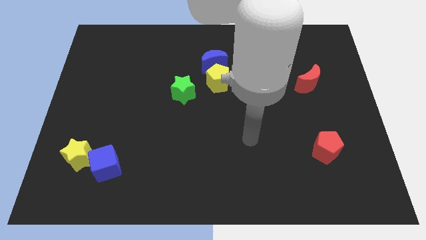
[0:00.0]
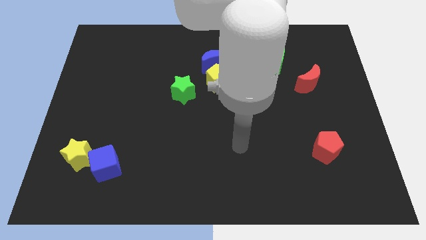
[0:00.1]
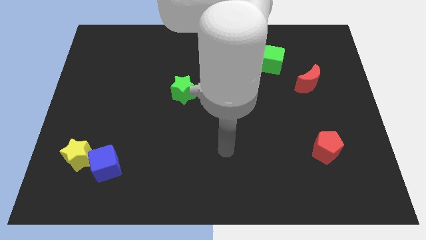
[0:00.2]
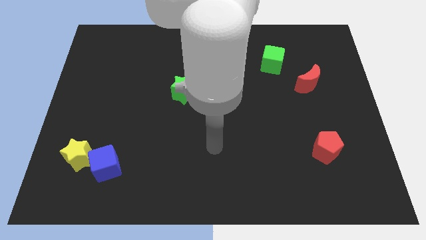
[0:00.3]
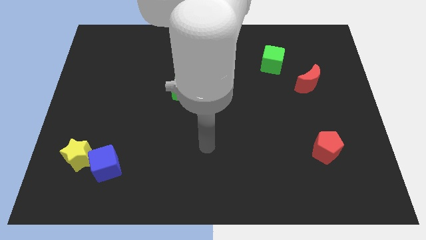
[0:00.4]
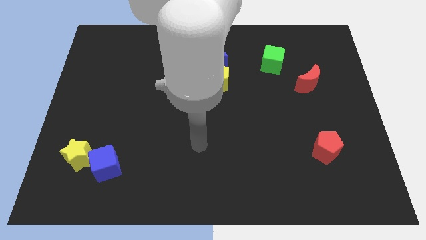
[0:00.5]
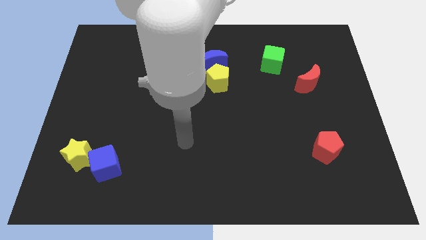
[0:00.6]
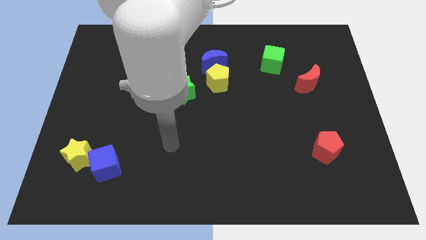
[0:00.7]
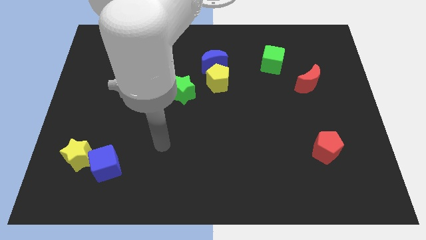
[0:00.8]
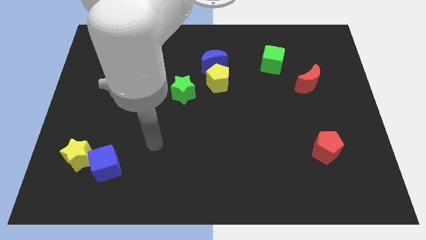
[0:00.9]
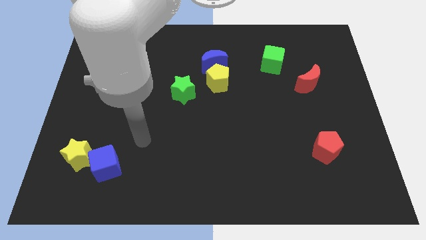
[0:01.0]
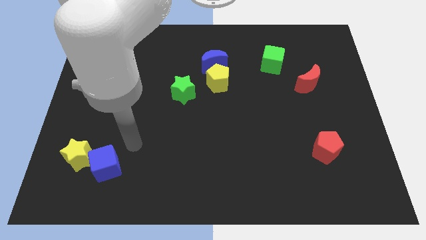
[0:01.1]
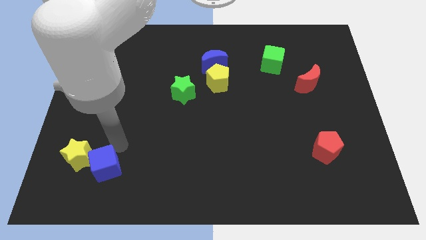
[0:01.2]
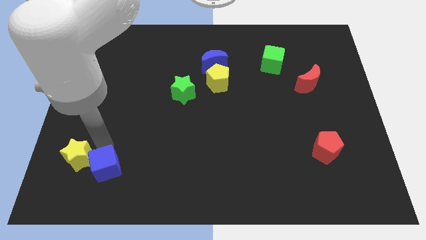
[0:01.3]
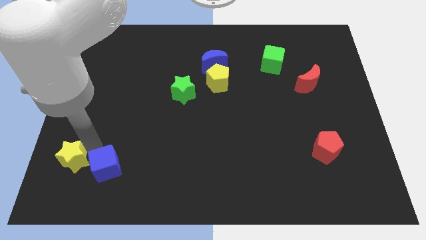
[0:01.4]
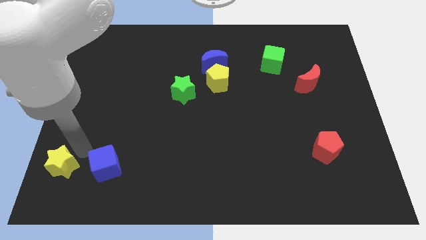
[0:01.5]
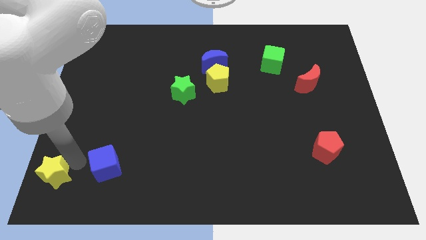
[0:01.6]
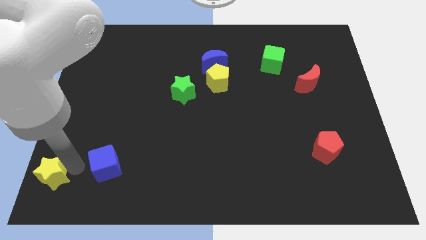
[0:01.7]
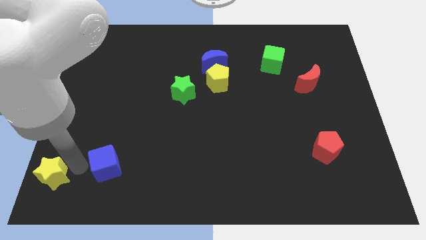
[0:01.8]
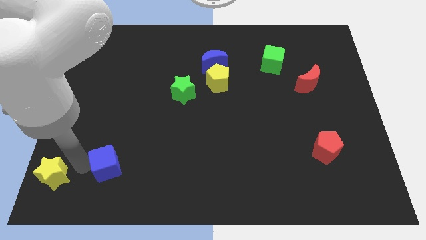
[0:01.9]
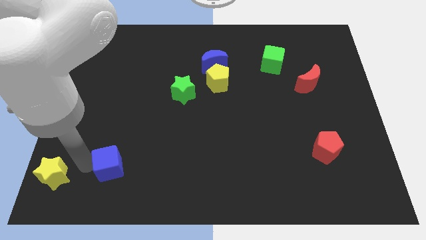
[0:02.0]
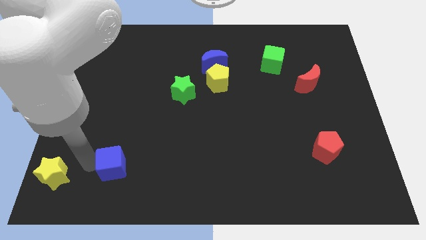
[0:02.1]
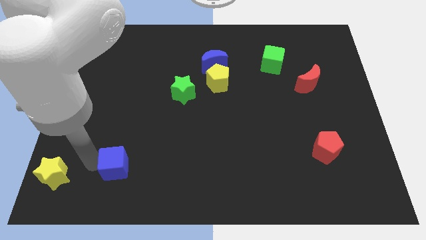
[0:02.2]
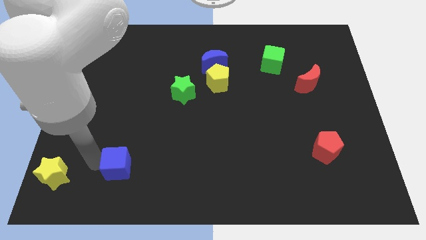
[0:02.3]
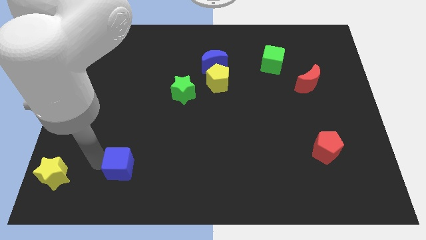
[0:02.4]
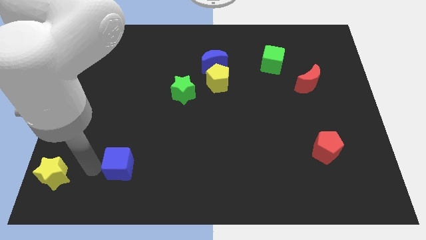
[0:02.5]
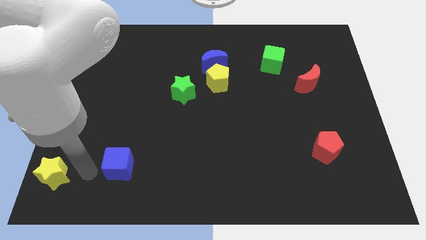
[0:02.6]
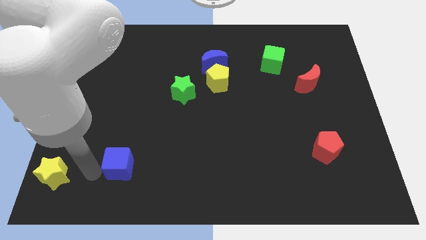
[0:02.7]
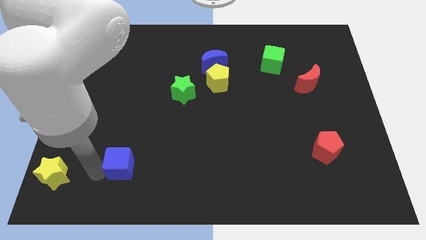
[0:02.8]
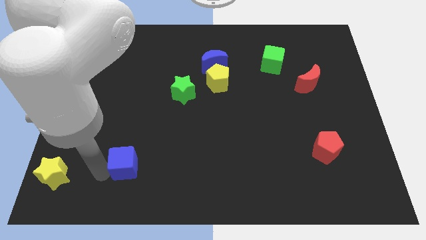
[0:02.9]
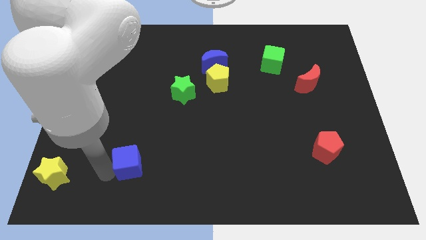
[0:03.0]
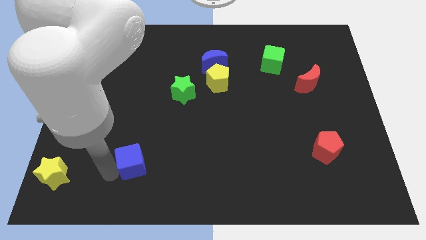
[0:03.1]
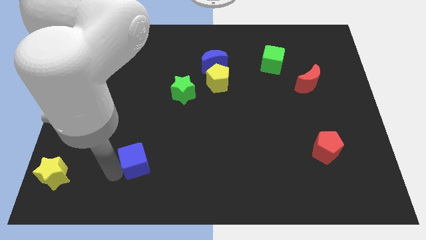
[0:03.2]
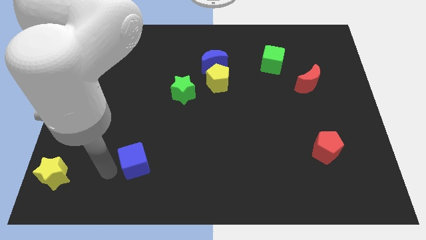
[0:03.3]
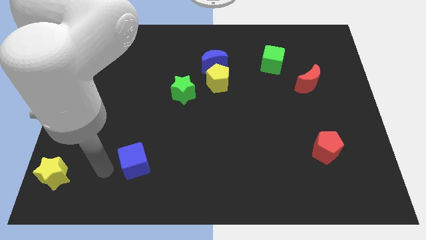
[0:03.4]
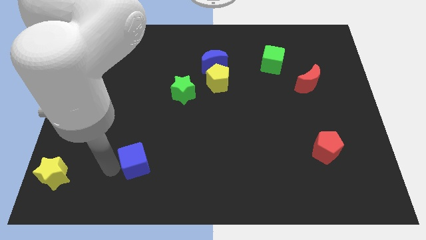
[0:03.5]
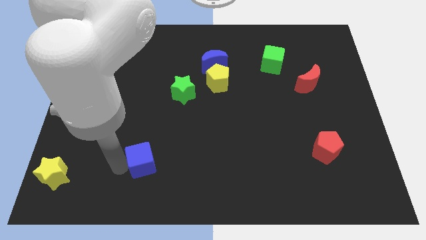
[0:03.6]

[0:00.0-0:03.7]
slightly slide the blue cube to the right

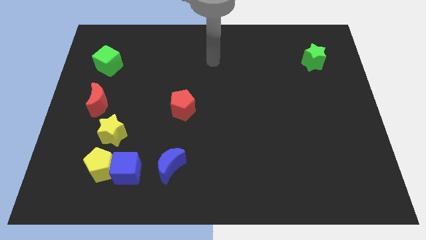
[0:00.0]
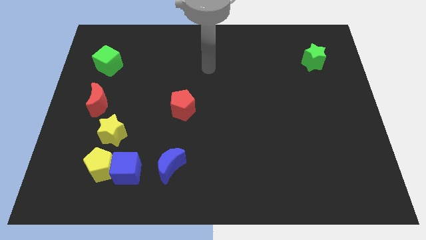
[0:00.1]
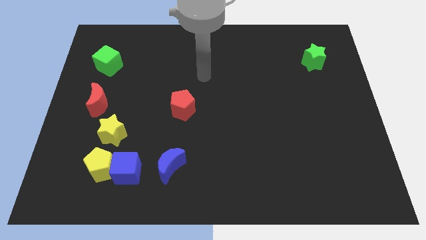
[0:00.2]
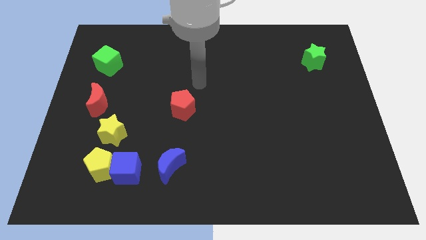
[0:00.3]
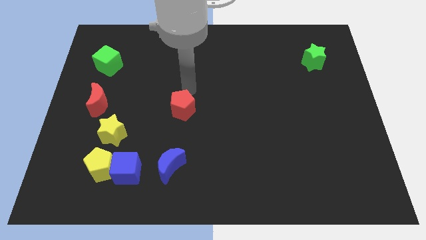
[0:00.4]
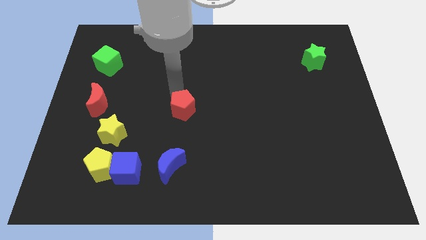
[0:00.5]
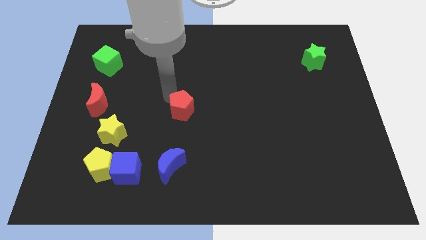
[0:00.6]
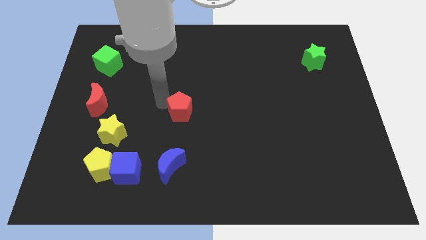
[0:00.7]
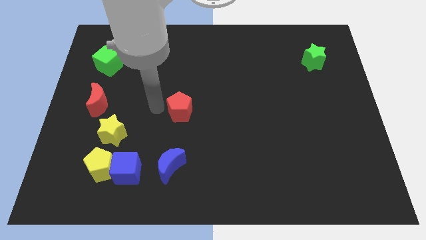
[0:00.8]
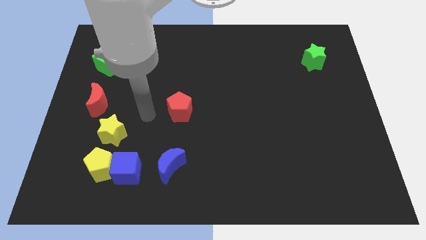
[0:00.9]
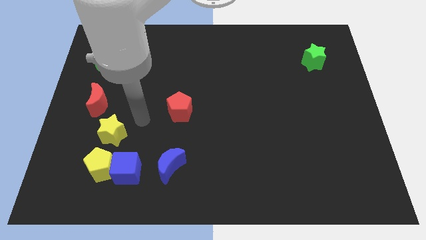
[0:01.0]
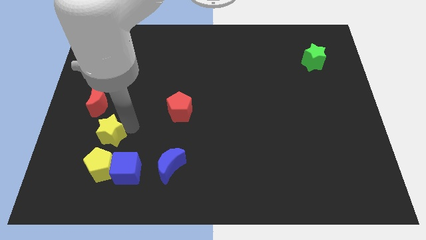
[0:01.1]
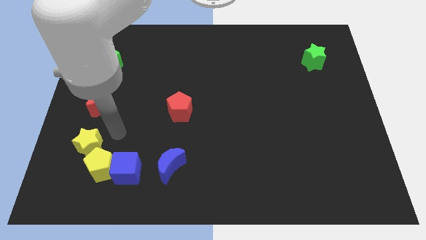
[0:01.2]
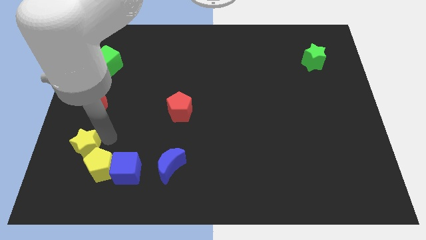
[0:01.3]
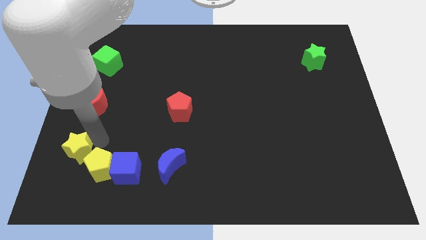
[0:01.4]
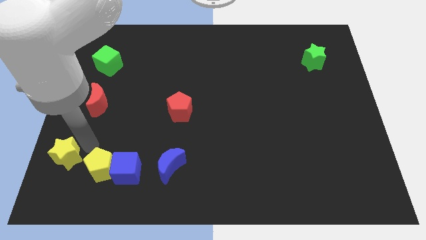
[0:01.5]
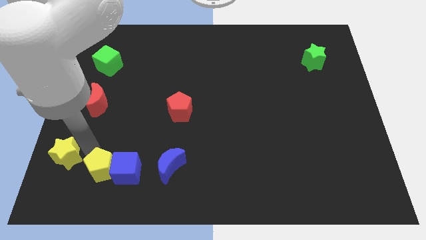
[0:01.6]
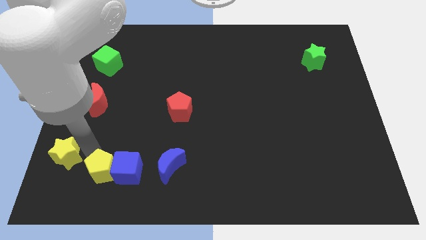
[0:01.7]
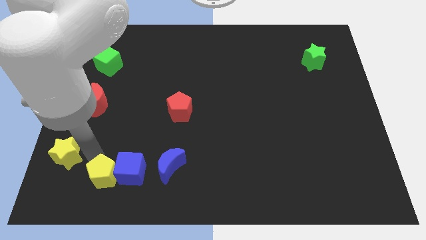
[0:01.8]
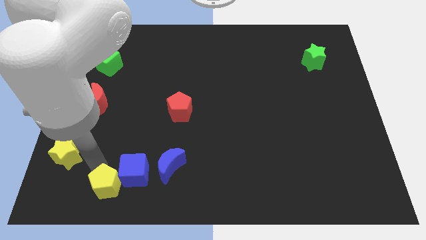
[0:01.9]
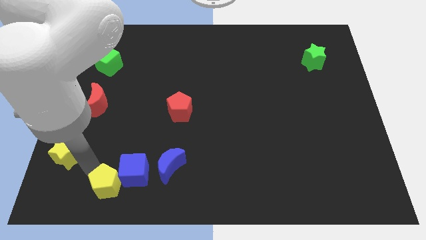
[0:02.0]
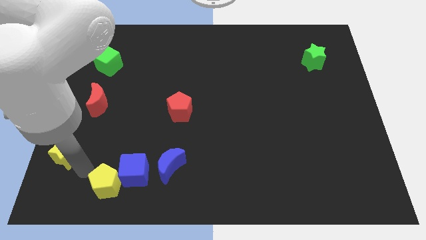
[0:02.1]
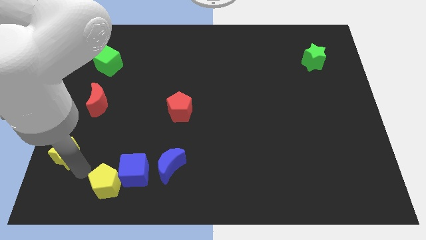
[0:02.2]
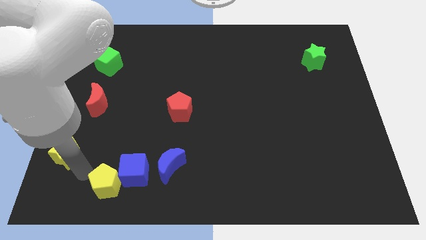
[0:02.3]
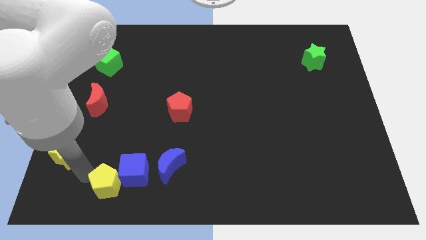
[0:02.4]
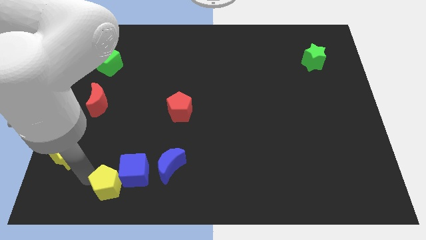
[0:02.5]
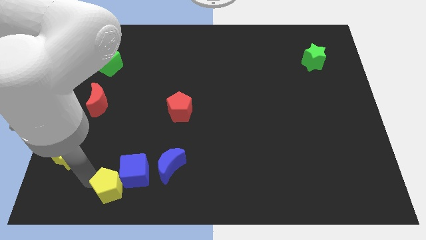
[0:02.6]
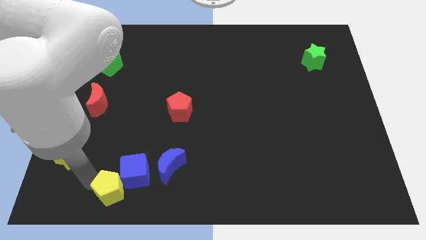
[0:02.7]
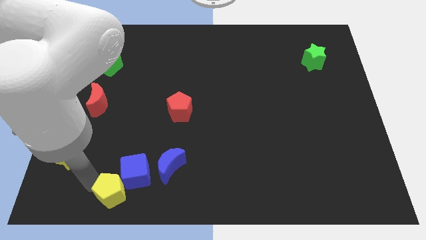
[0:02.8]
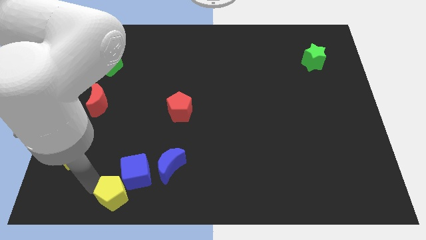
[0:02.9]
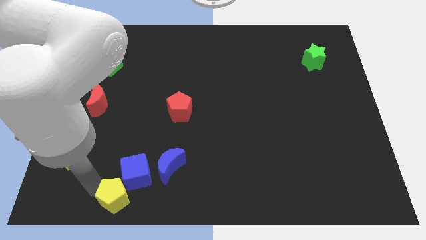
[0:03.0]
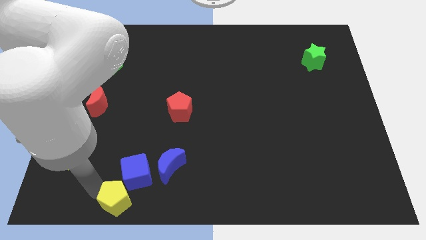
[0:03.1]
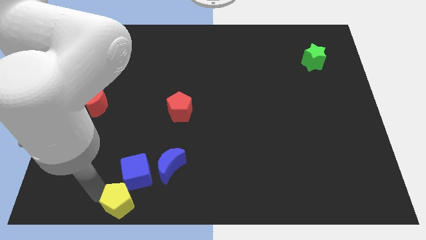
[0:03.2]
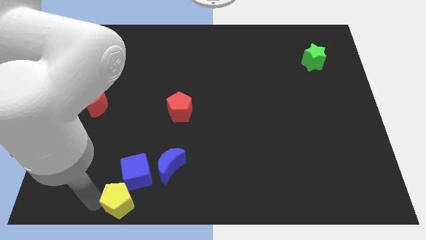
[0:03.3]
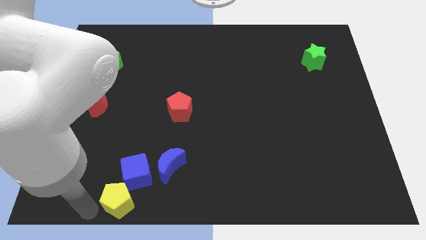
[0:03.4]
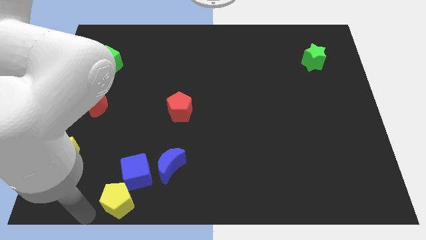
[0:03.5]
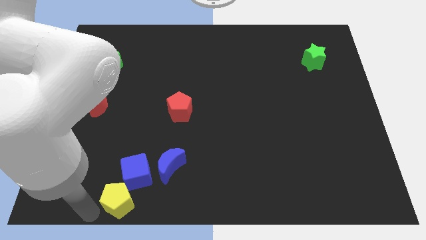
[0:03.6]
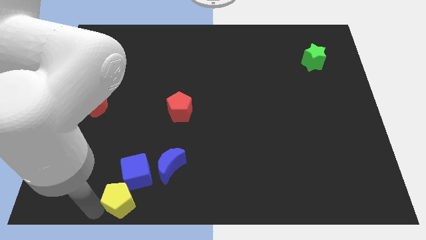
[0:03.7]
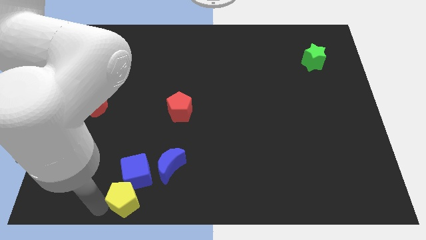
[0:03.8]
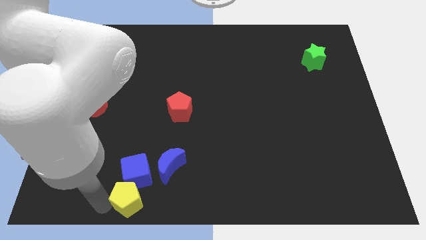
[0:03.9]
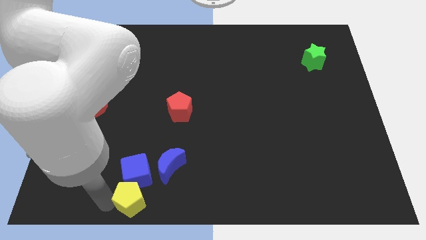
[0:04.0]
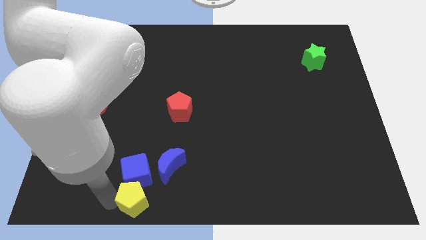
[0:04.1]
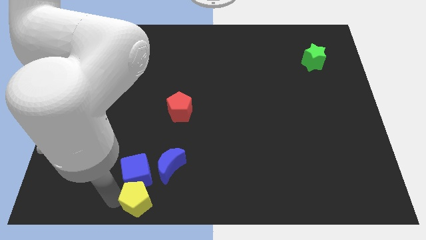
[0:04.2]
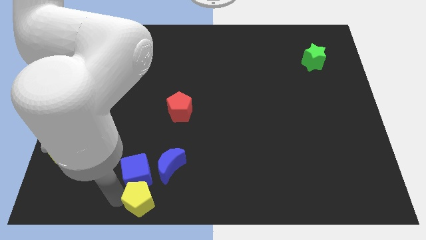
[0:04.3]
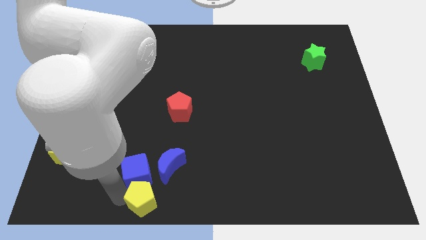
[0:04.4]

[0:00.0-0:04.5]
slide the yellow pentagon a little right
